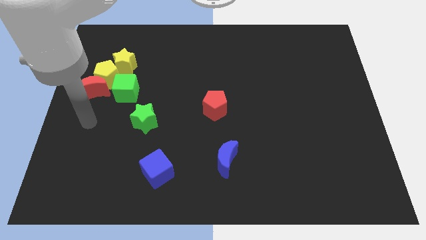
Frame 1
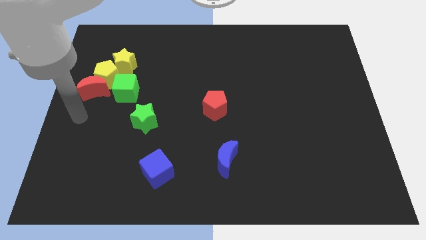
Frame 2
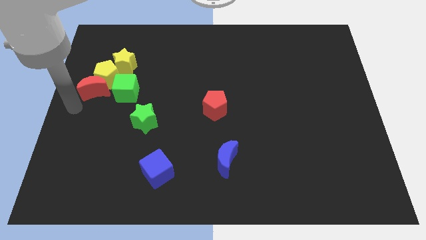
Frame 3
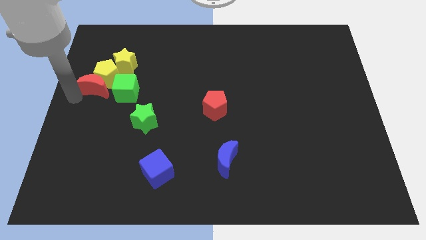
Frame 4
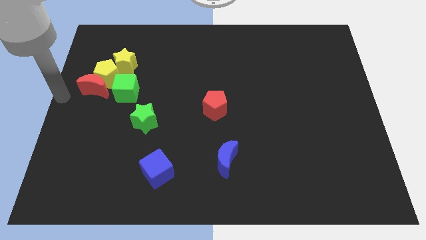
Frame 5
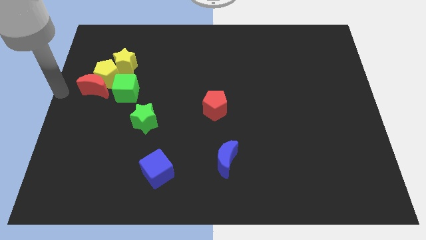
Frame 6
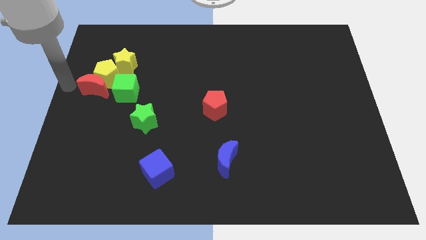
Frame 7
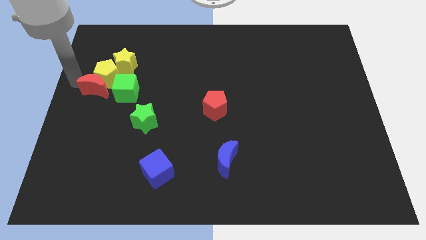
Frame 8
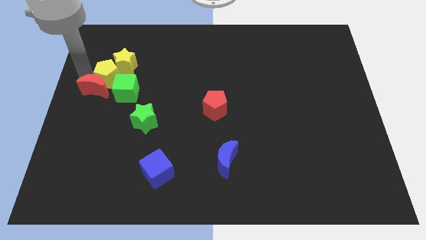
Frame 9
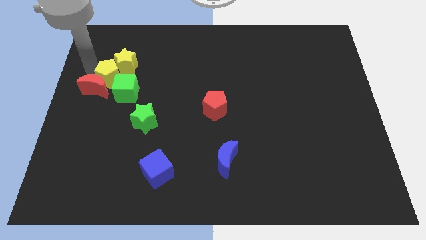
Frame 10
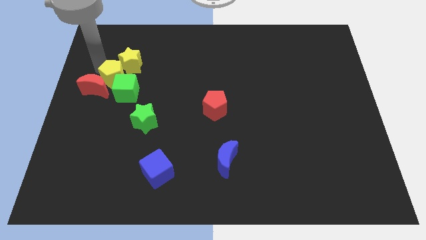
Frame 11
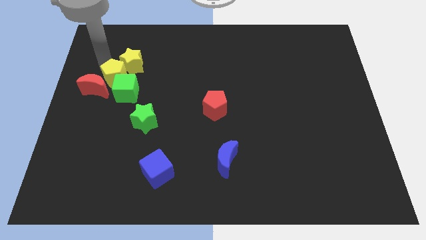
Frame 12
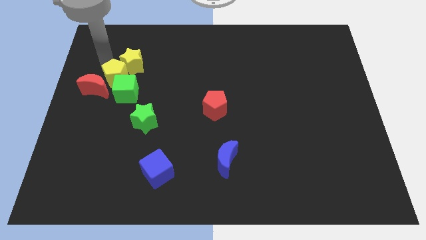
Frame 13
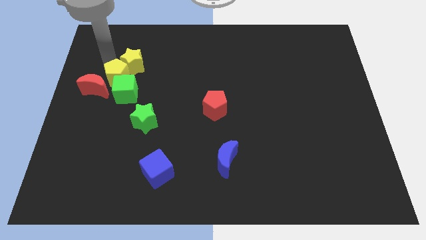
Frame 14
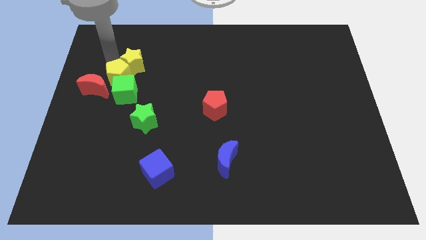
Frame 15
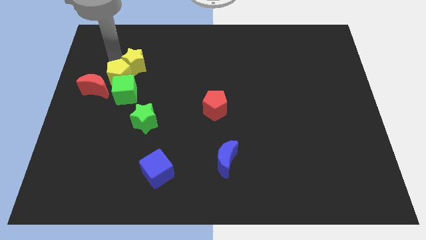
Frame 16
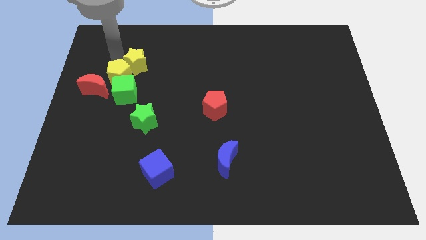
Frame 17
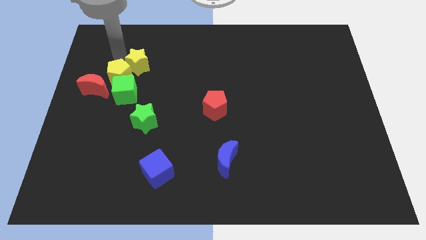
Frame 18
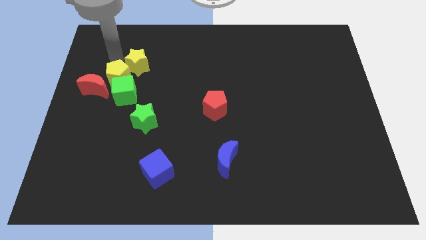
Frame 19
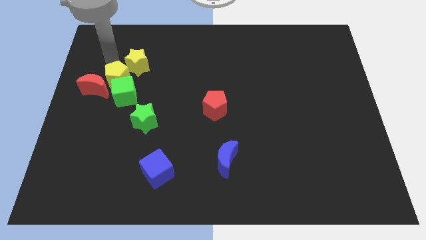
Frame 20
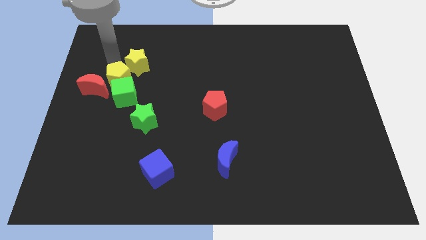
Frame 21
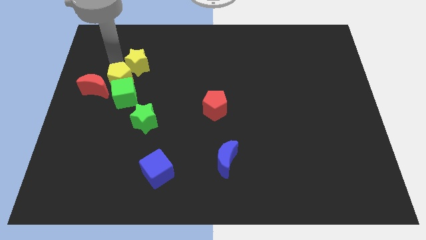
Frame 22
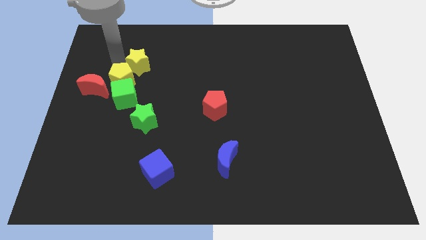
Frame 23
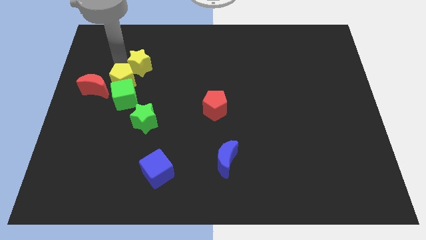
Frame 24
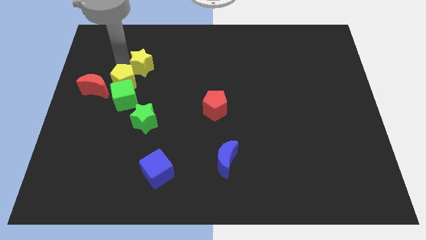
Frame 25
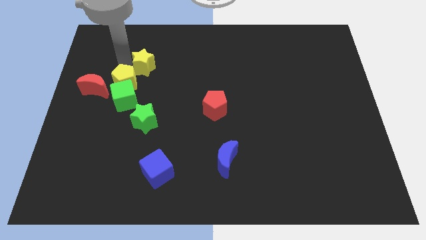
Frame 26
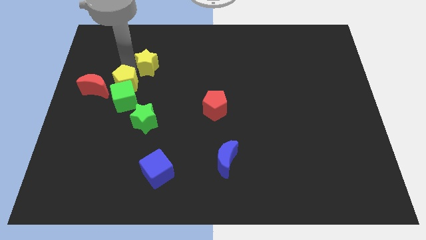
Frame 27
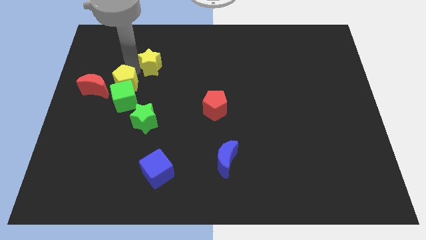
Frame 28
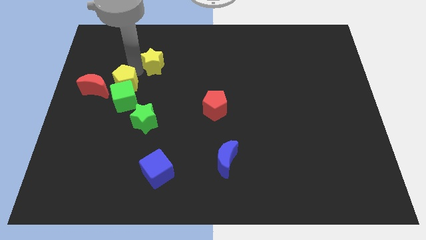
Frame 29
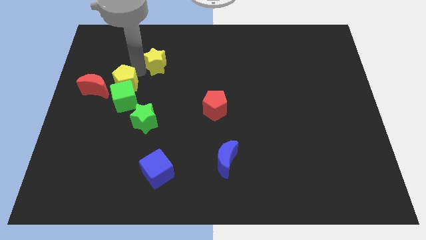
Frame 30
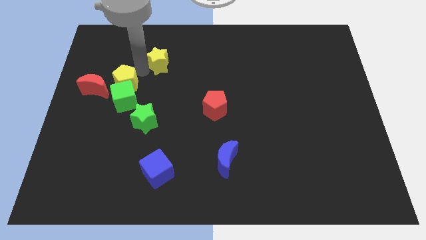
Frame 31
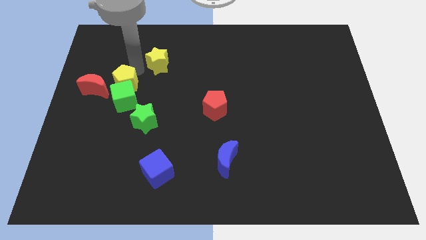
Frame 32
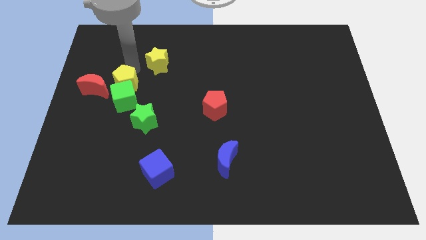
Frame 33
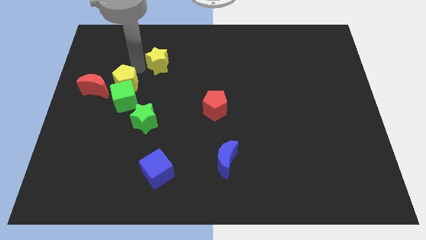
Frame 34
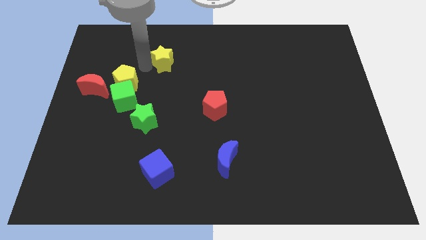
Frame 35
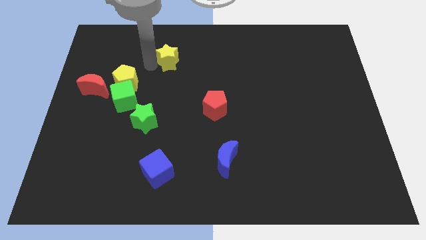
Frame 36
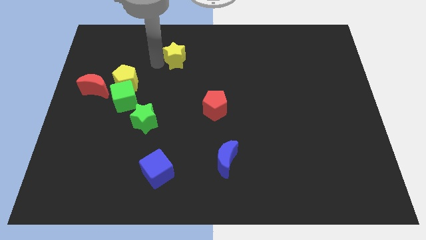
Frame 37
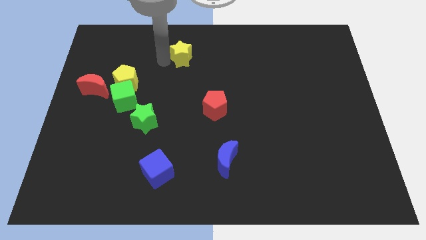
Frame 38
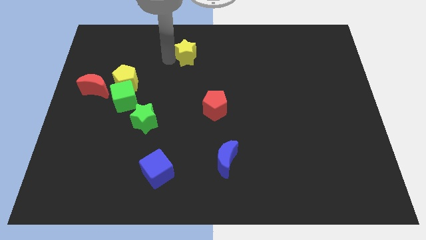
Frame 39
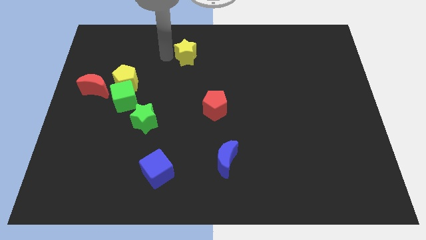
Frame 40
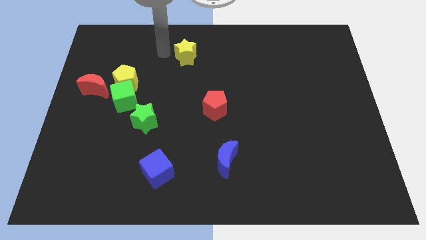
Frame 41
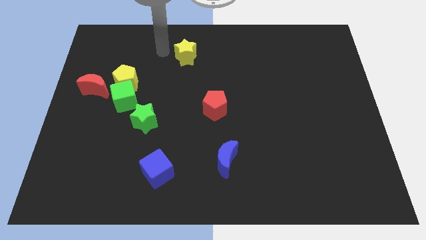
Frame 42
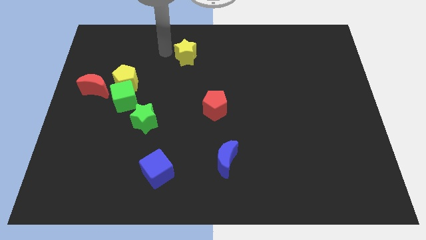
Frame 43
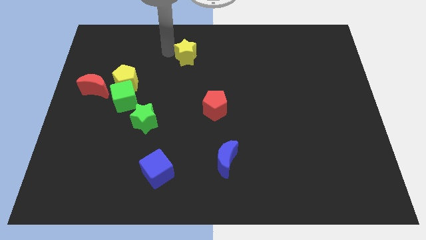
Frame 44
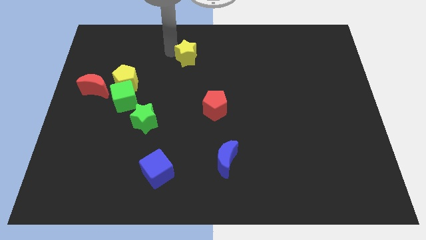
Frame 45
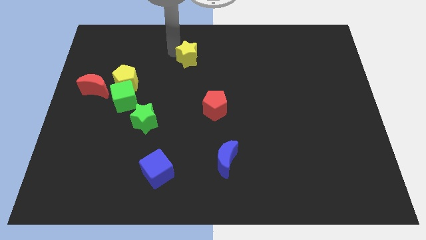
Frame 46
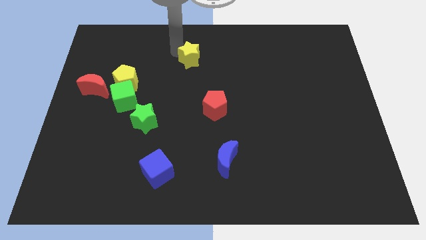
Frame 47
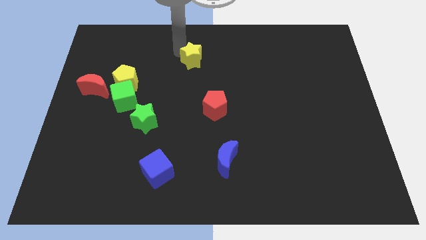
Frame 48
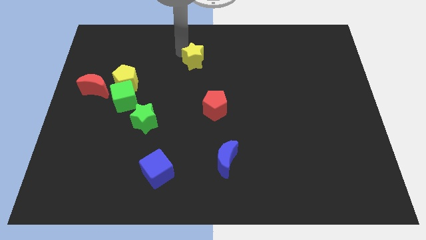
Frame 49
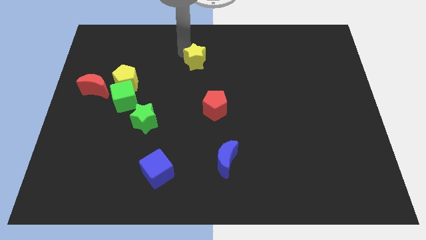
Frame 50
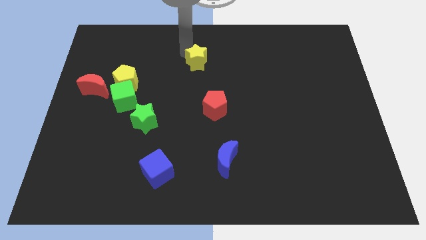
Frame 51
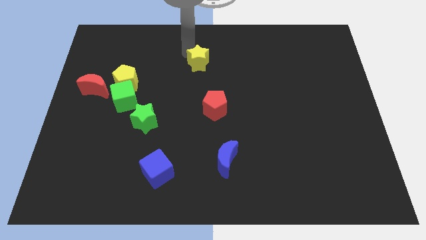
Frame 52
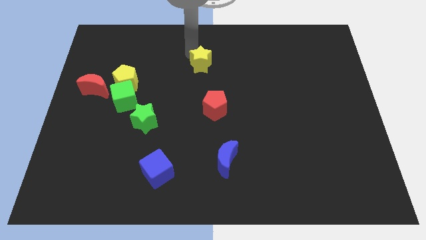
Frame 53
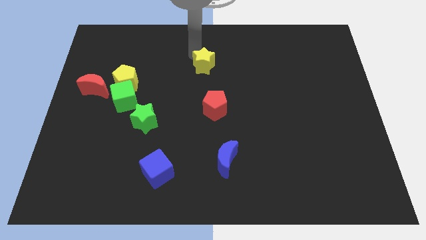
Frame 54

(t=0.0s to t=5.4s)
move the yellow star to the right

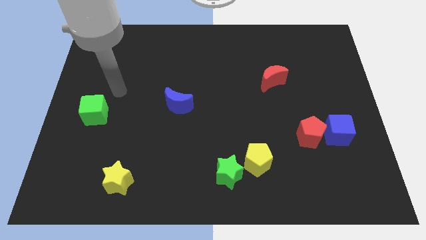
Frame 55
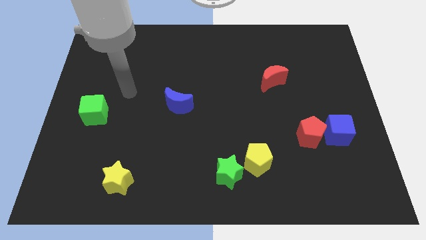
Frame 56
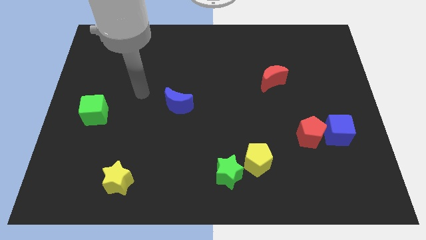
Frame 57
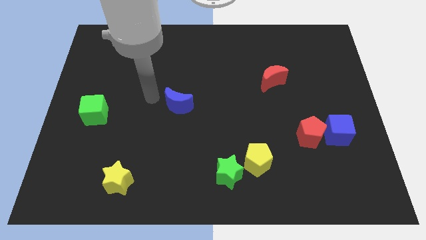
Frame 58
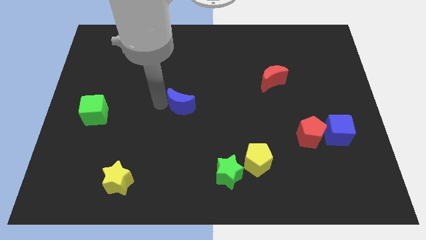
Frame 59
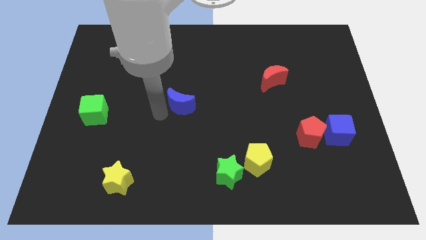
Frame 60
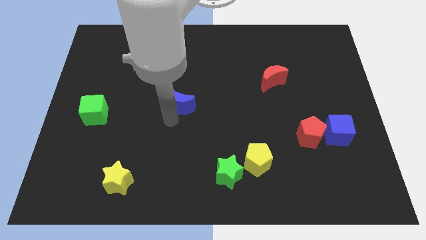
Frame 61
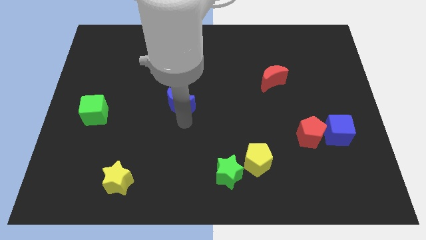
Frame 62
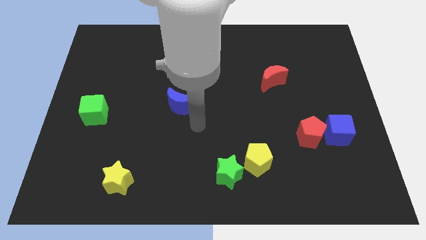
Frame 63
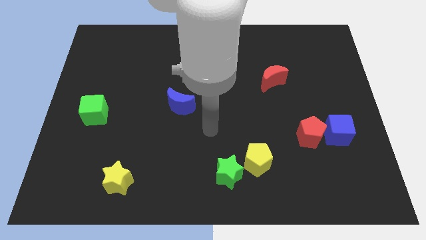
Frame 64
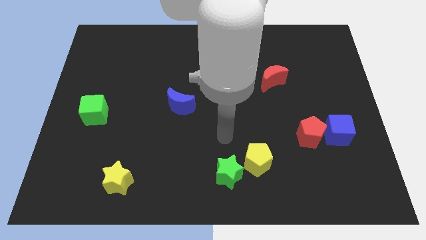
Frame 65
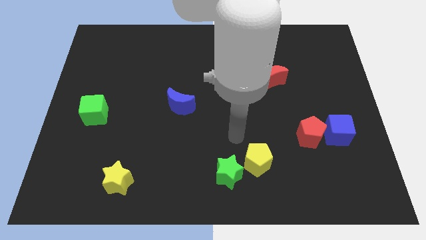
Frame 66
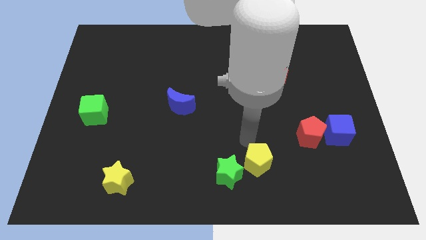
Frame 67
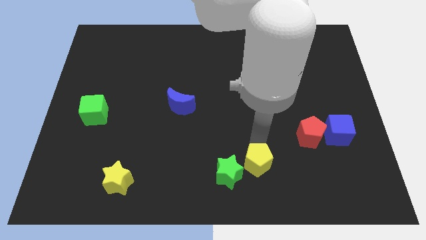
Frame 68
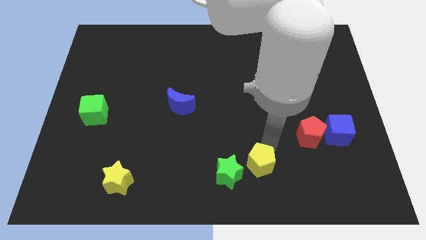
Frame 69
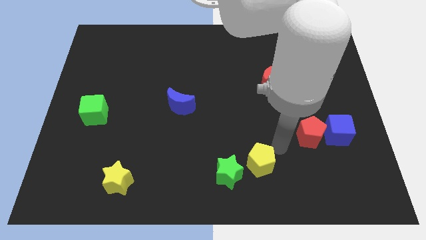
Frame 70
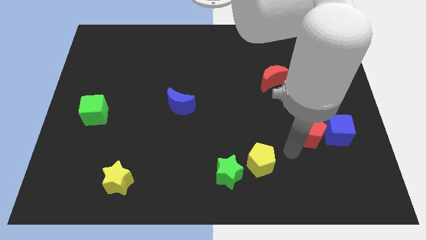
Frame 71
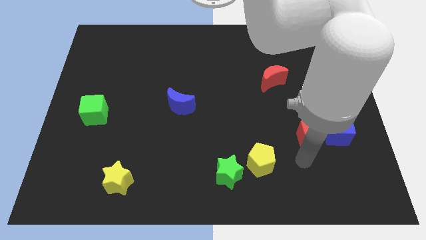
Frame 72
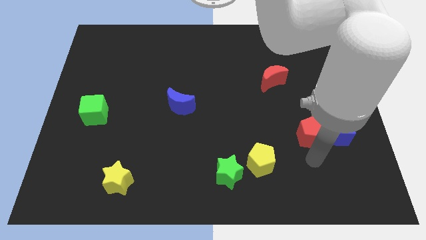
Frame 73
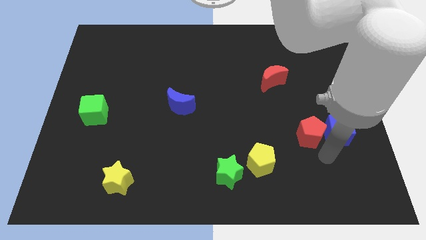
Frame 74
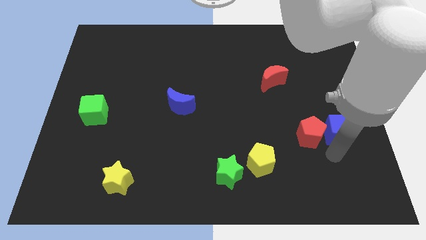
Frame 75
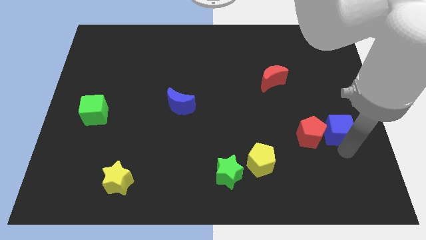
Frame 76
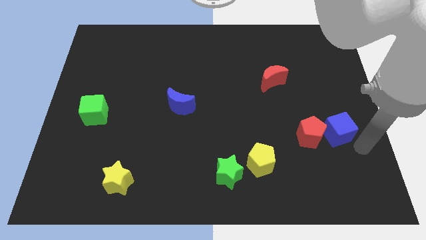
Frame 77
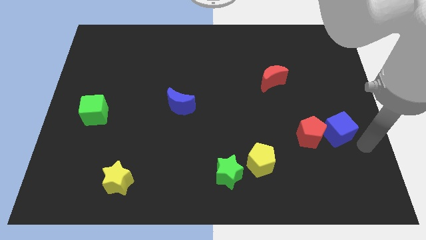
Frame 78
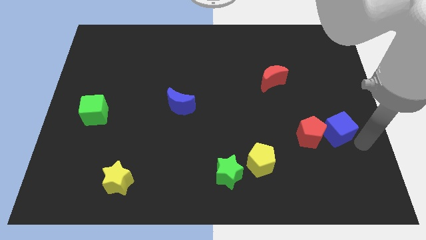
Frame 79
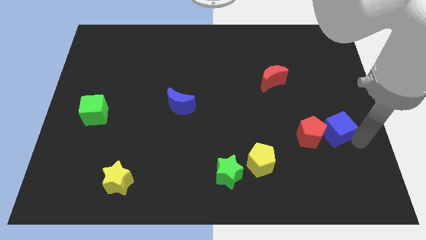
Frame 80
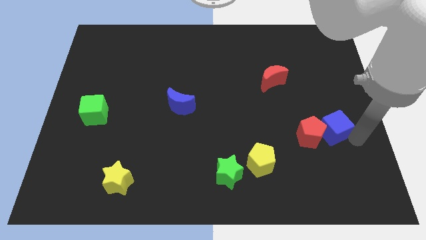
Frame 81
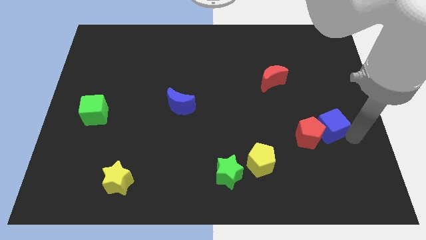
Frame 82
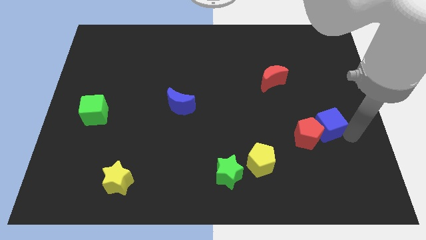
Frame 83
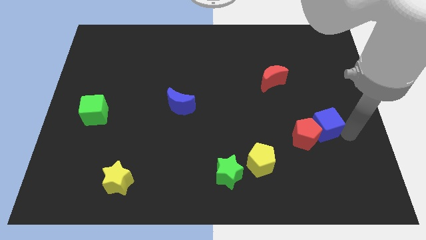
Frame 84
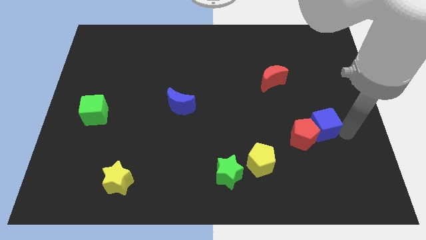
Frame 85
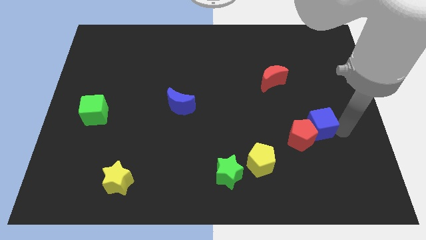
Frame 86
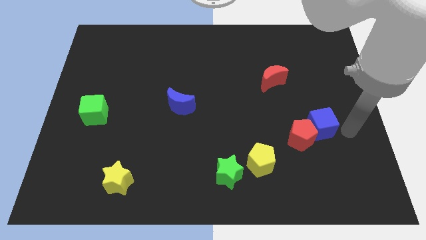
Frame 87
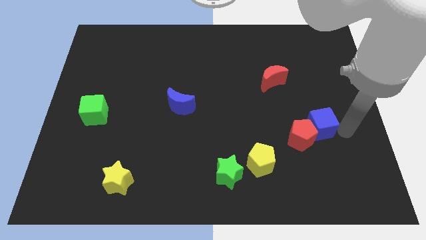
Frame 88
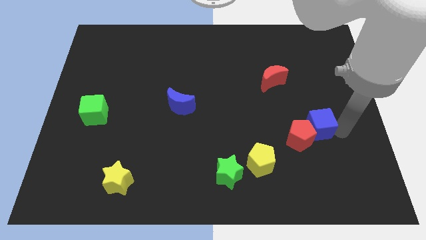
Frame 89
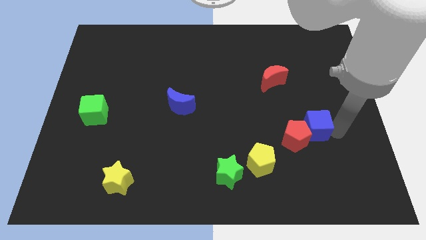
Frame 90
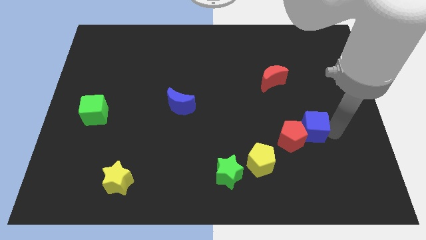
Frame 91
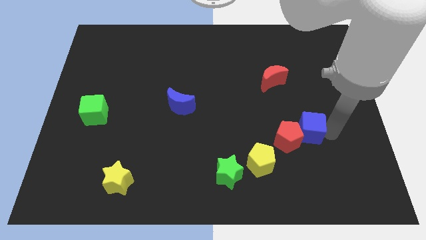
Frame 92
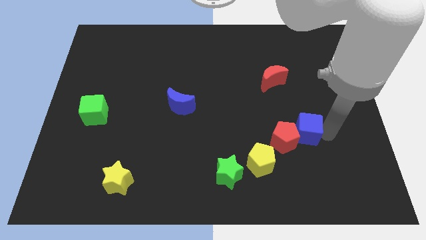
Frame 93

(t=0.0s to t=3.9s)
slightly slide the blue cube left
